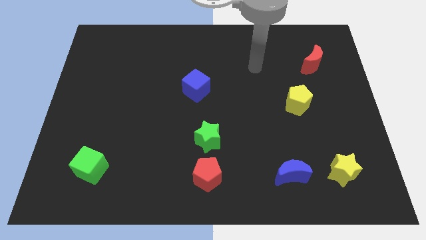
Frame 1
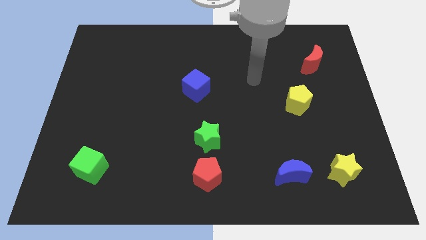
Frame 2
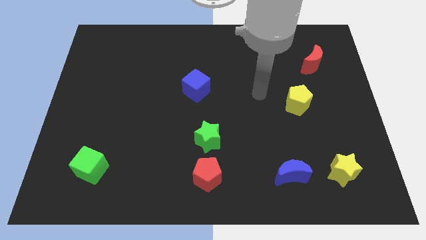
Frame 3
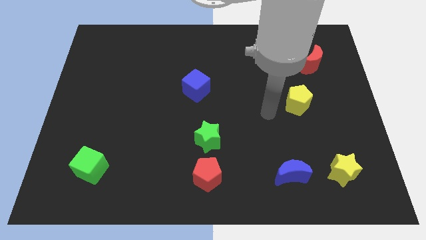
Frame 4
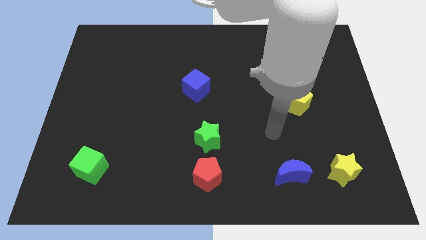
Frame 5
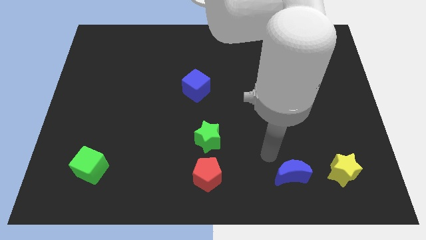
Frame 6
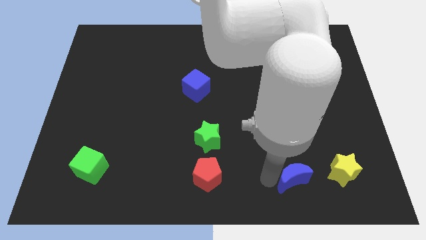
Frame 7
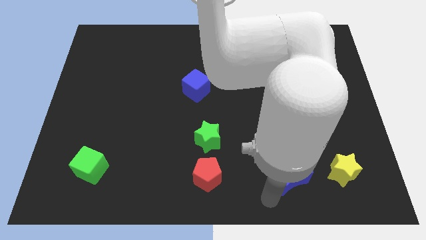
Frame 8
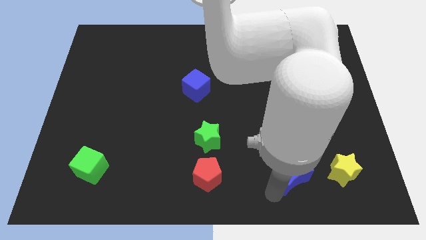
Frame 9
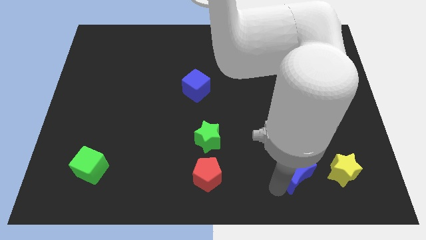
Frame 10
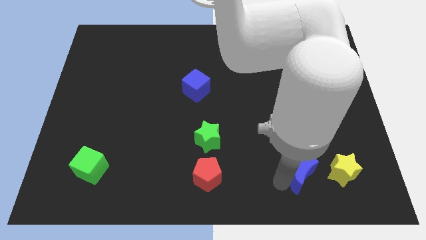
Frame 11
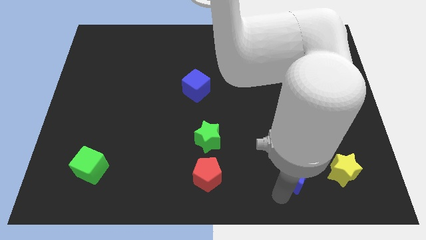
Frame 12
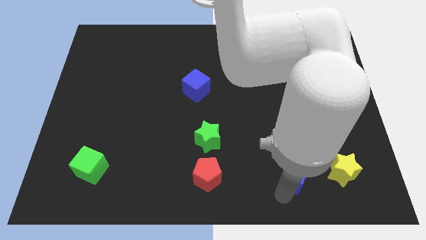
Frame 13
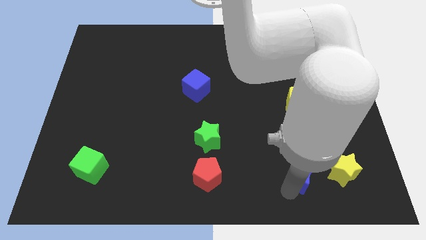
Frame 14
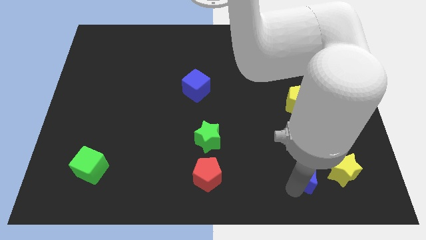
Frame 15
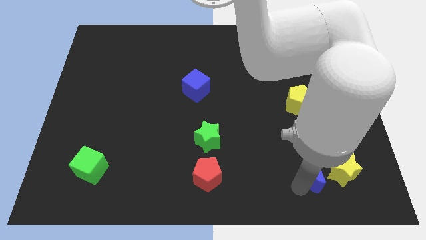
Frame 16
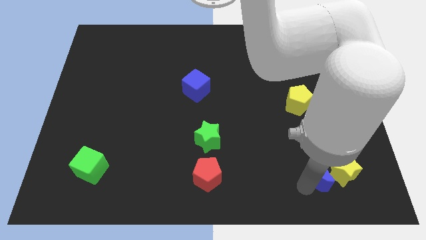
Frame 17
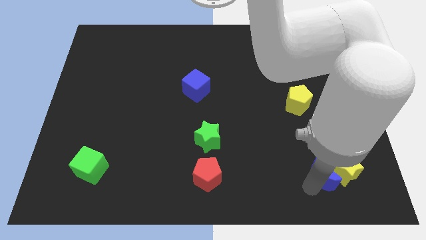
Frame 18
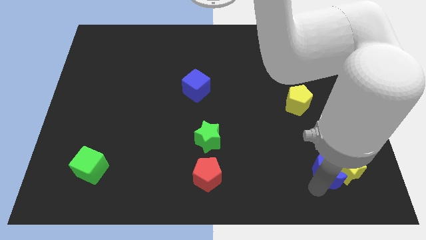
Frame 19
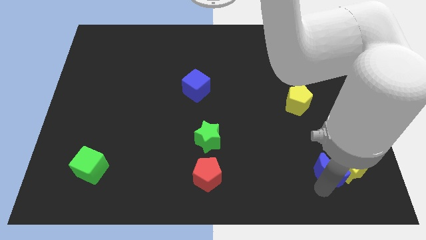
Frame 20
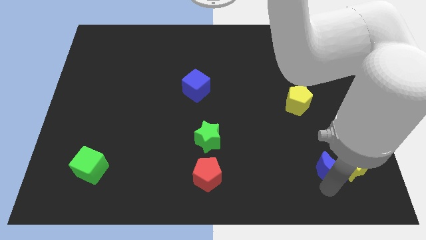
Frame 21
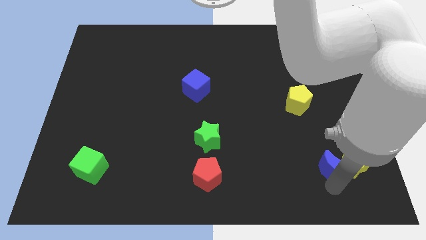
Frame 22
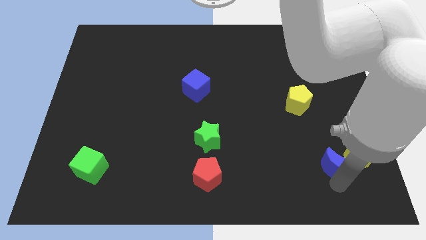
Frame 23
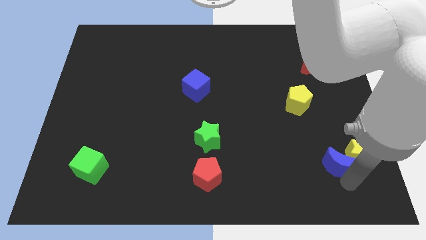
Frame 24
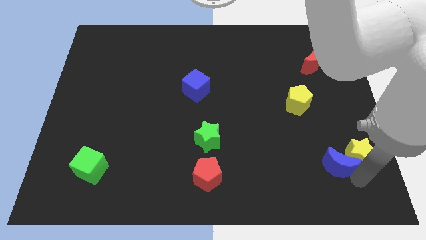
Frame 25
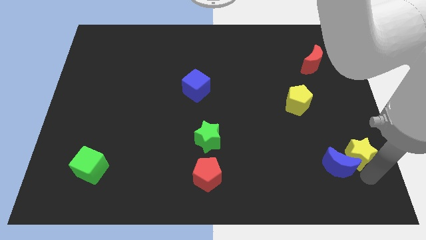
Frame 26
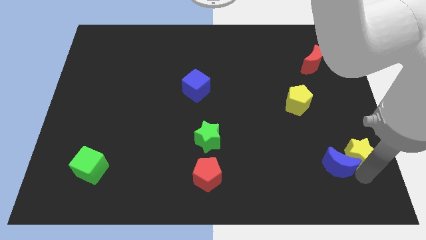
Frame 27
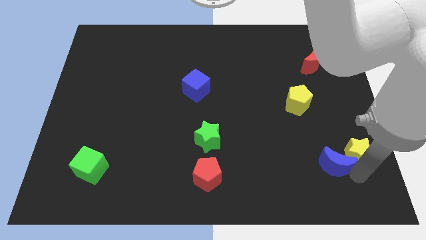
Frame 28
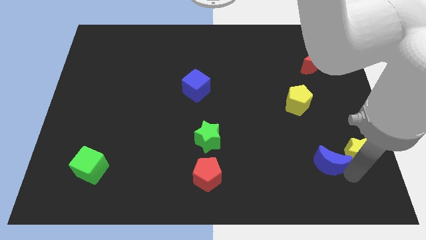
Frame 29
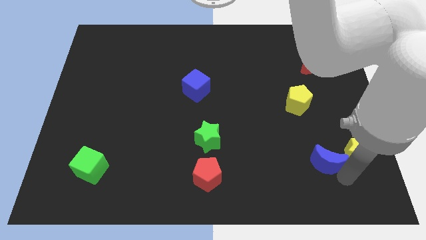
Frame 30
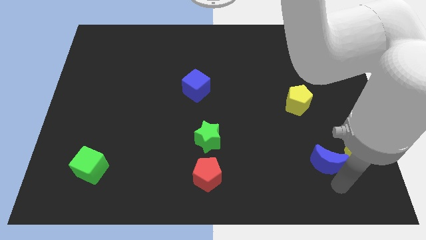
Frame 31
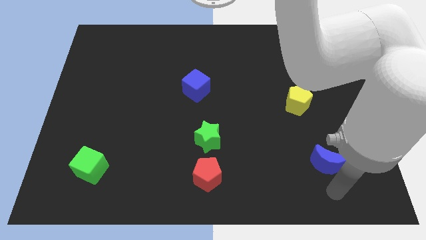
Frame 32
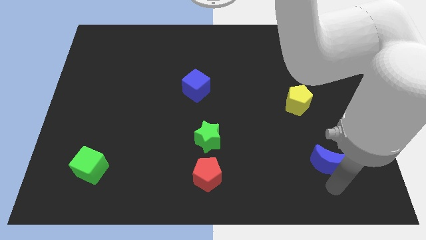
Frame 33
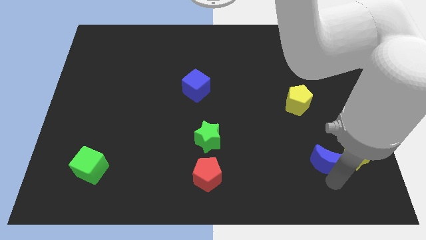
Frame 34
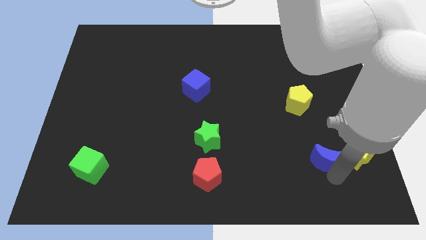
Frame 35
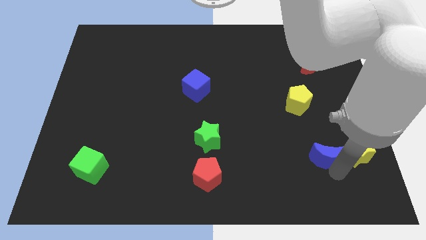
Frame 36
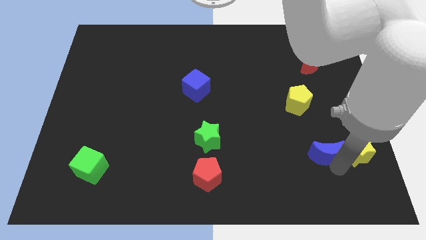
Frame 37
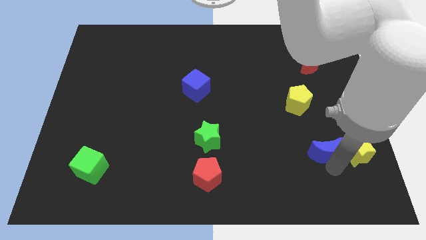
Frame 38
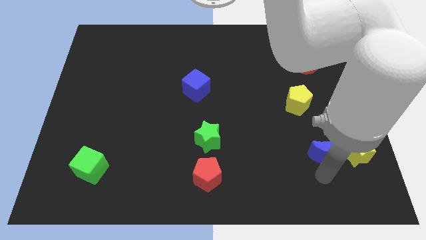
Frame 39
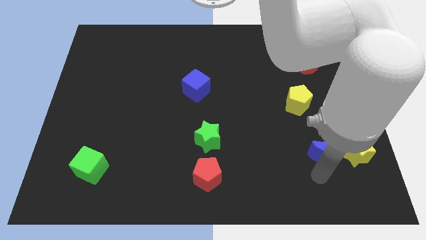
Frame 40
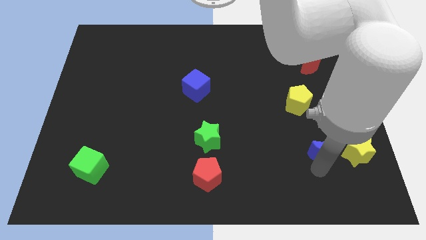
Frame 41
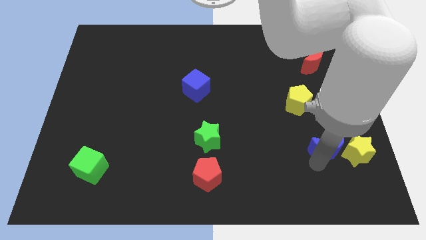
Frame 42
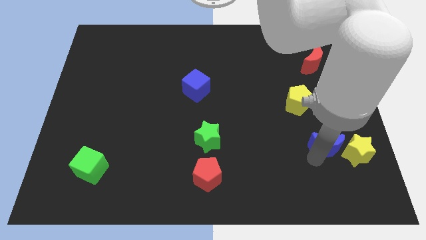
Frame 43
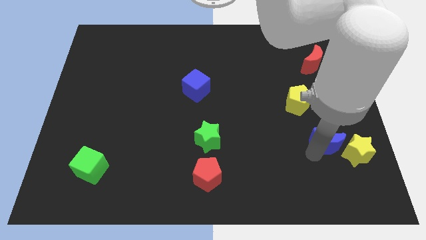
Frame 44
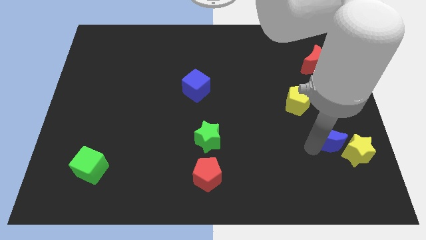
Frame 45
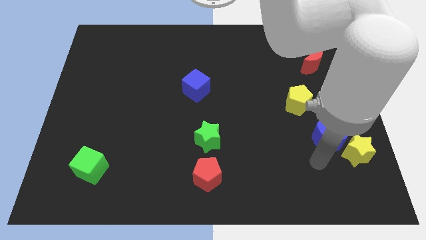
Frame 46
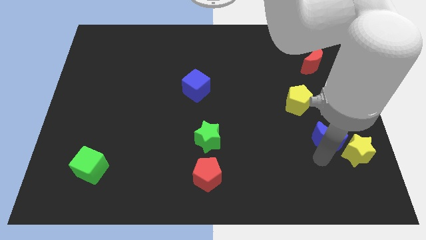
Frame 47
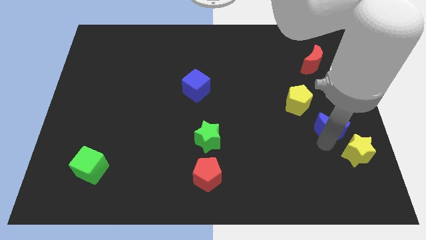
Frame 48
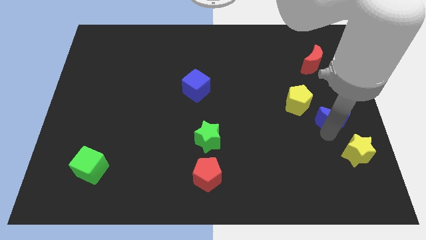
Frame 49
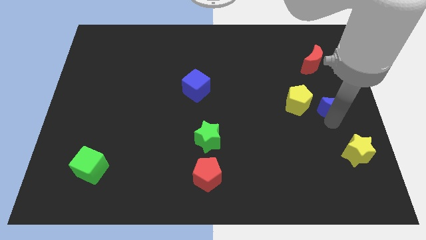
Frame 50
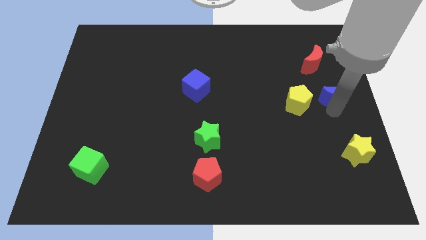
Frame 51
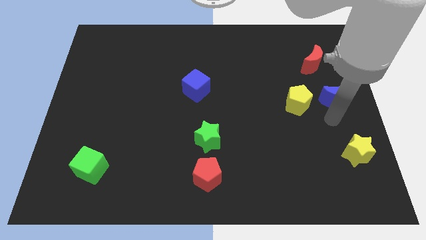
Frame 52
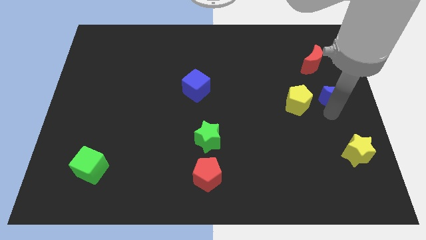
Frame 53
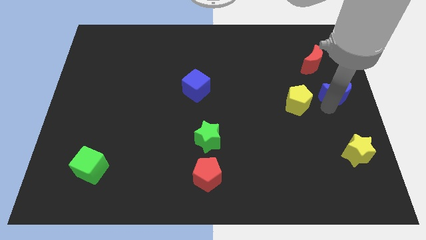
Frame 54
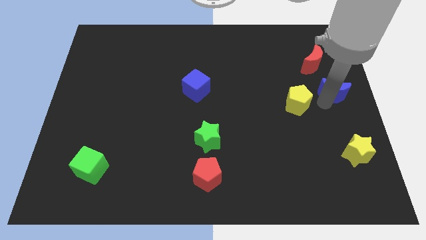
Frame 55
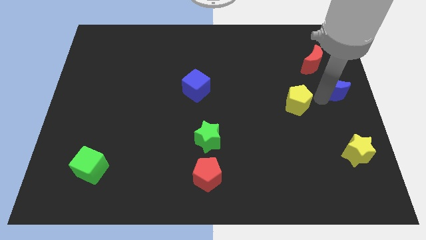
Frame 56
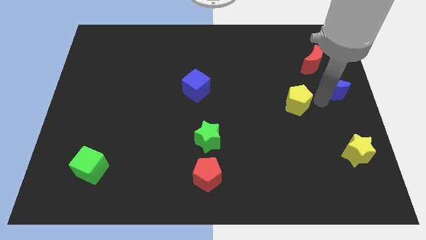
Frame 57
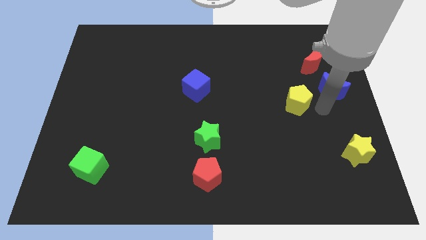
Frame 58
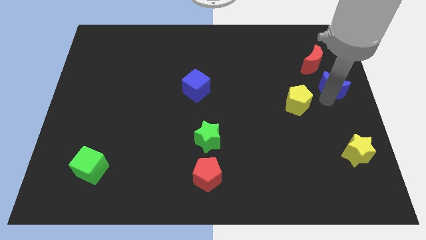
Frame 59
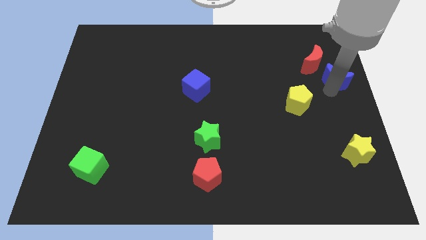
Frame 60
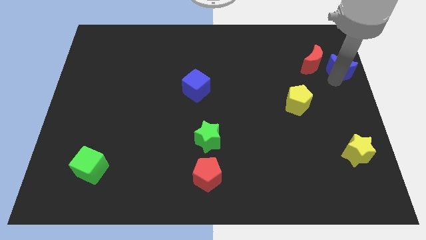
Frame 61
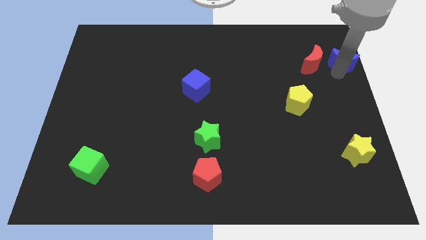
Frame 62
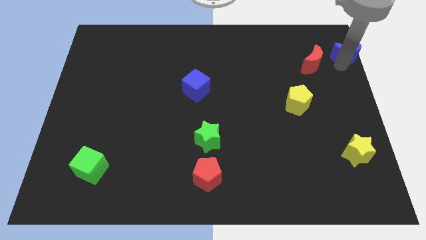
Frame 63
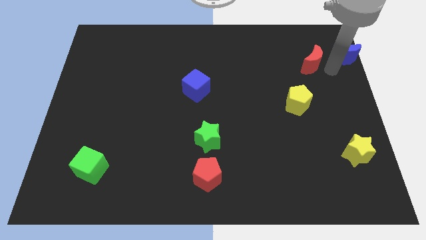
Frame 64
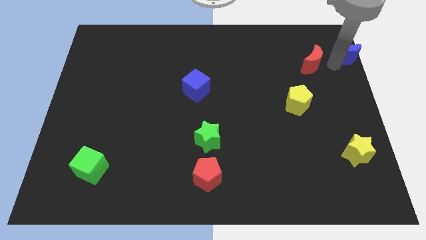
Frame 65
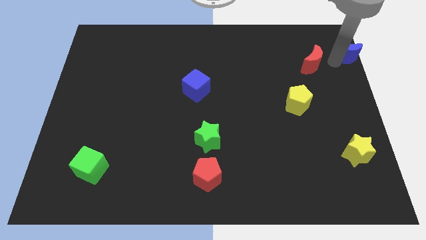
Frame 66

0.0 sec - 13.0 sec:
move the blue moon to the top right corner
